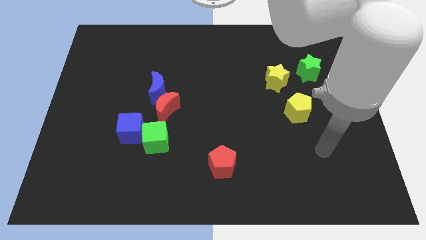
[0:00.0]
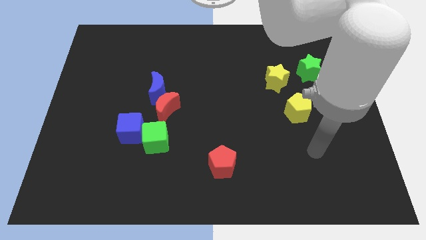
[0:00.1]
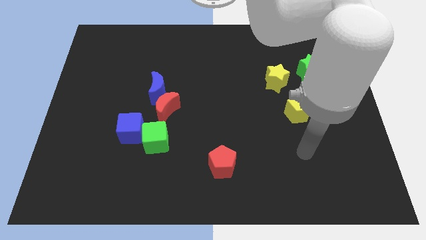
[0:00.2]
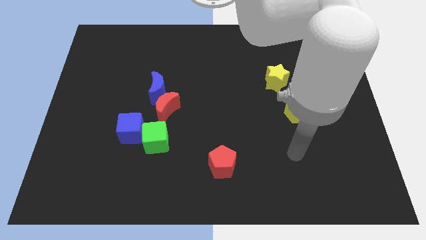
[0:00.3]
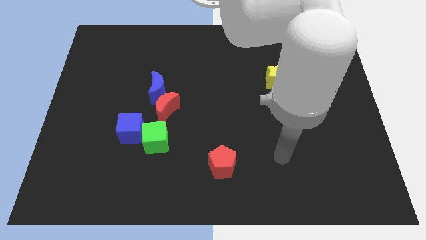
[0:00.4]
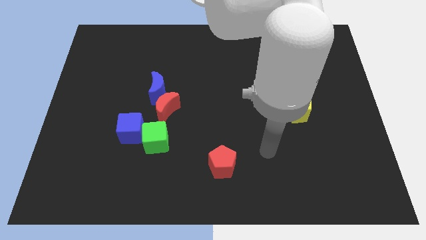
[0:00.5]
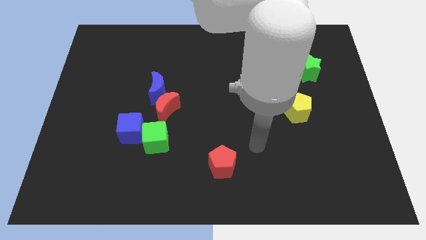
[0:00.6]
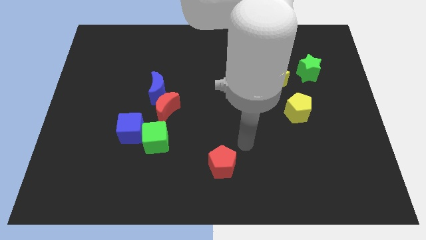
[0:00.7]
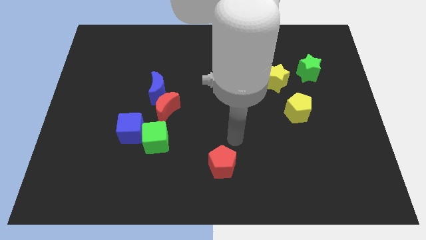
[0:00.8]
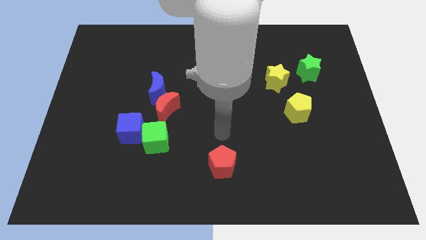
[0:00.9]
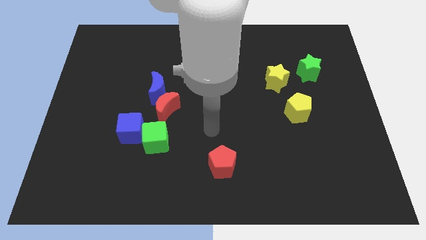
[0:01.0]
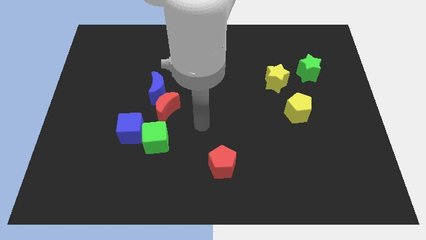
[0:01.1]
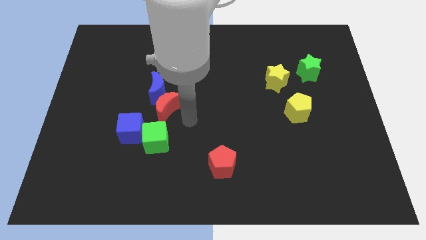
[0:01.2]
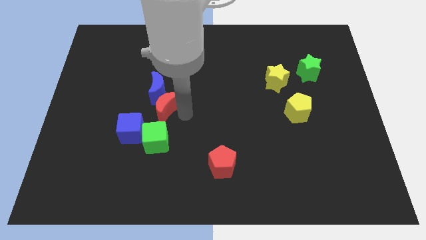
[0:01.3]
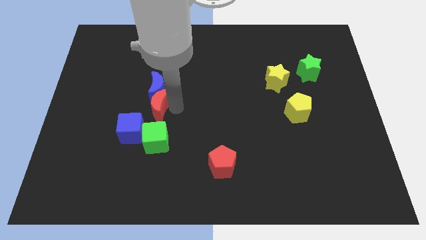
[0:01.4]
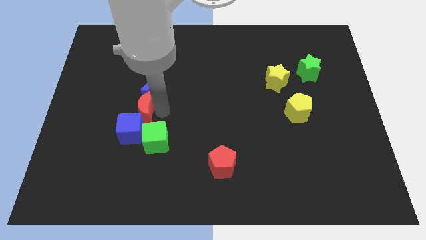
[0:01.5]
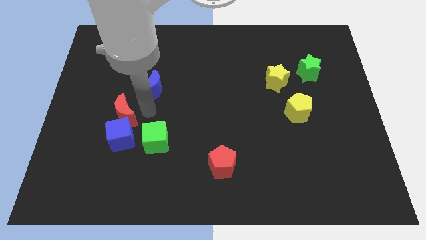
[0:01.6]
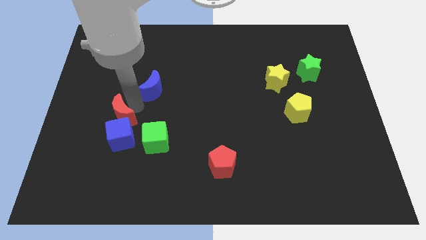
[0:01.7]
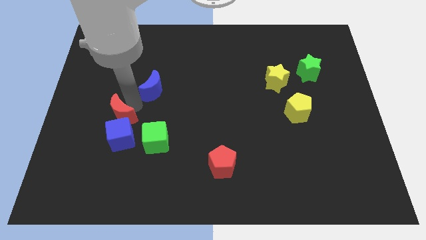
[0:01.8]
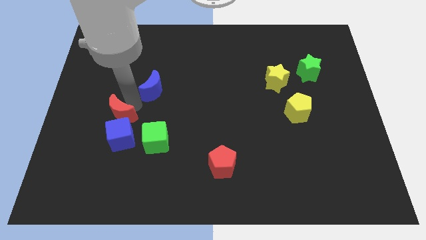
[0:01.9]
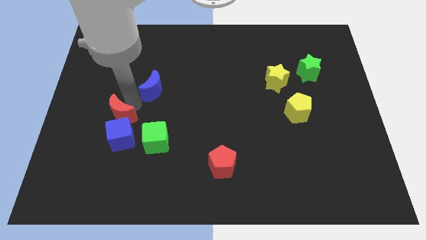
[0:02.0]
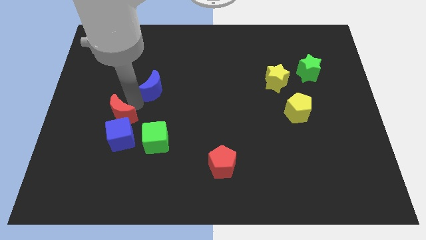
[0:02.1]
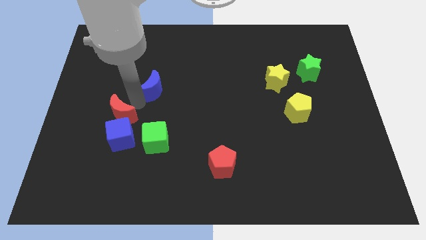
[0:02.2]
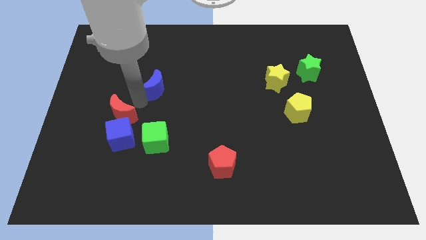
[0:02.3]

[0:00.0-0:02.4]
separate the blue moon from the red moon

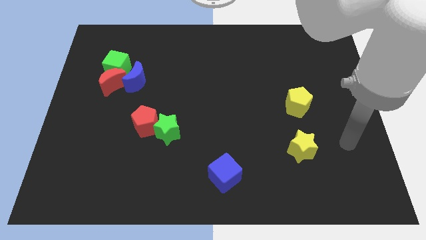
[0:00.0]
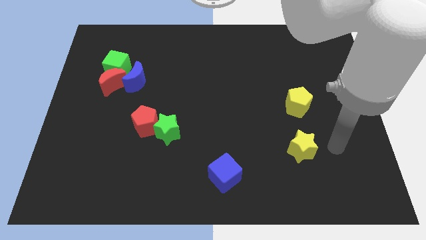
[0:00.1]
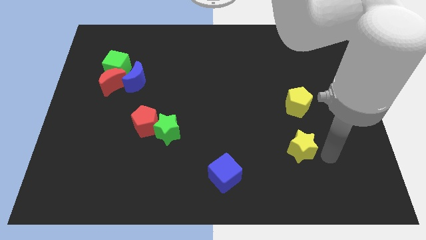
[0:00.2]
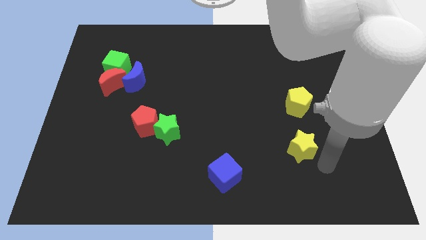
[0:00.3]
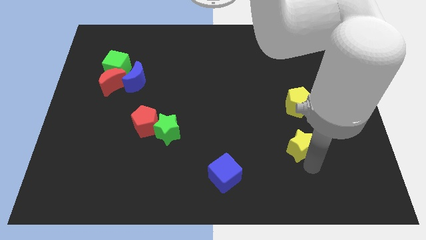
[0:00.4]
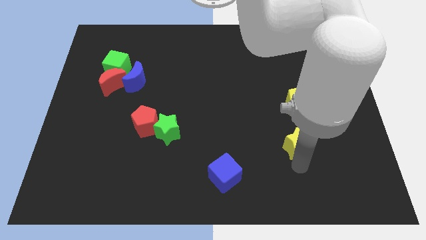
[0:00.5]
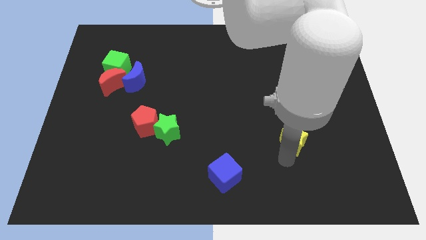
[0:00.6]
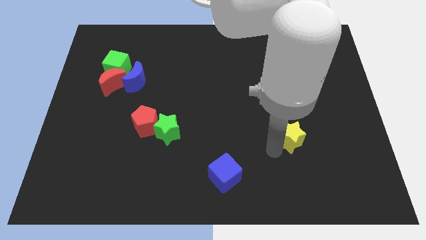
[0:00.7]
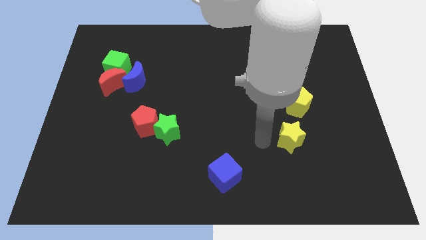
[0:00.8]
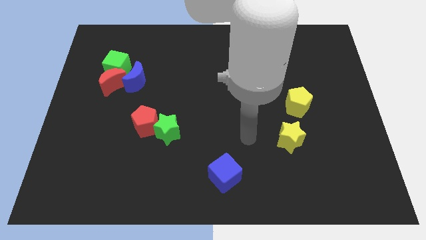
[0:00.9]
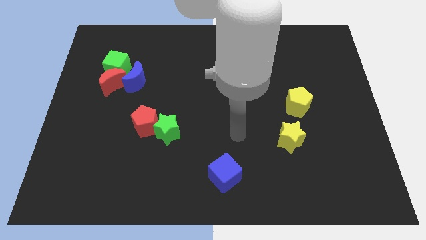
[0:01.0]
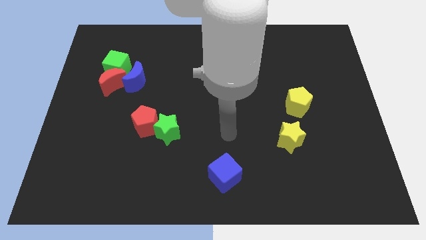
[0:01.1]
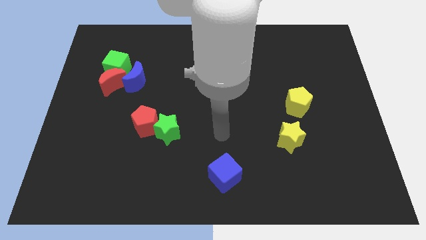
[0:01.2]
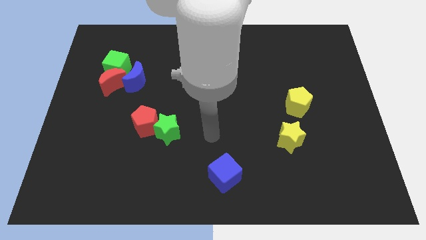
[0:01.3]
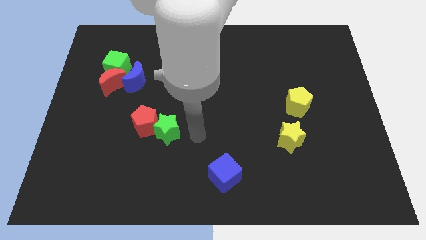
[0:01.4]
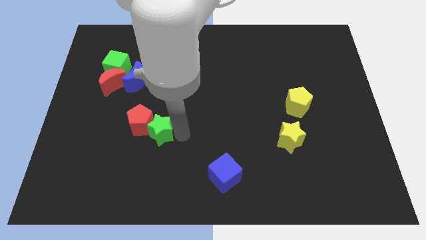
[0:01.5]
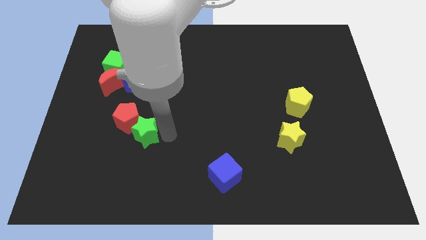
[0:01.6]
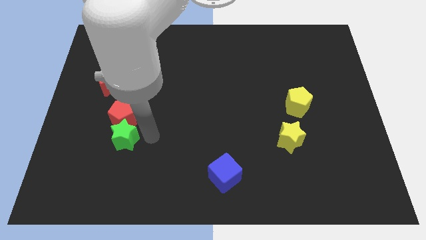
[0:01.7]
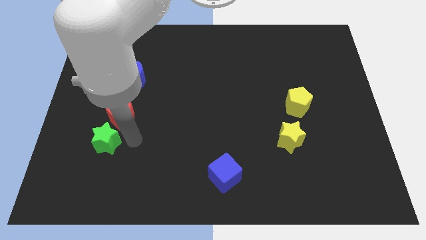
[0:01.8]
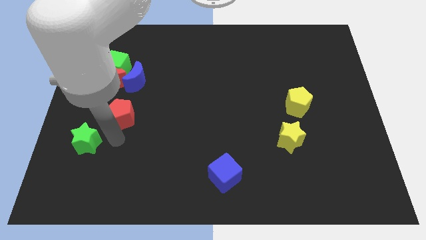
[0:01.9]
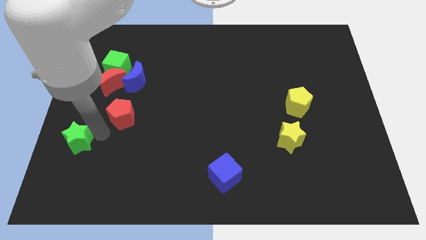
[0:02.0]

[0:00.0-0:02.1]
move the red pentagon away from the green star

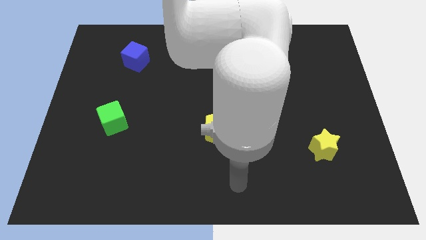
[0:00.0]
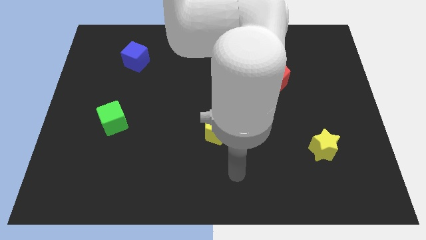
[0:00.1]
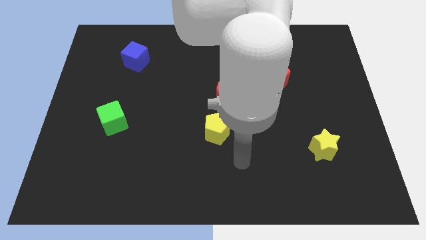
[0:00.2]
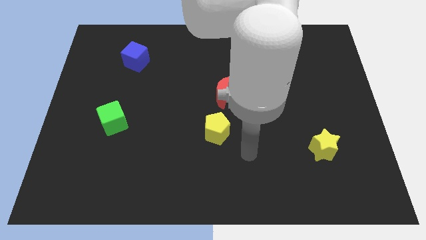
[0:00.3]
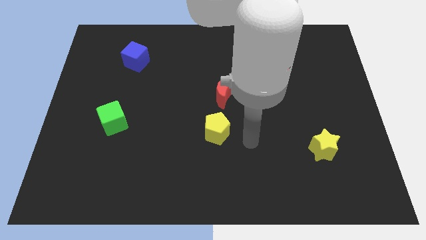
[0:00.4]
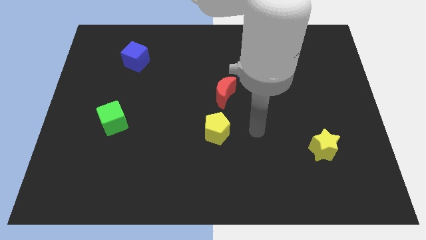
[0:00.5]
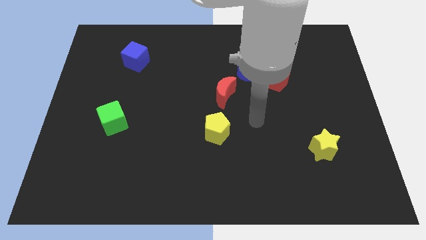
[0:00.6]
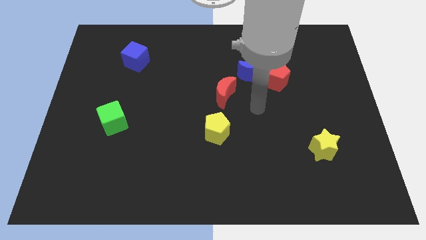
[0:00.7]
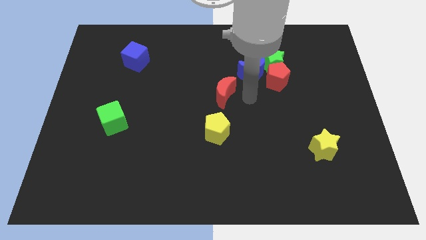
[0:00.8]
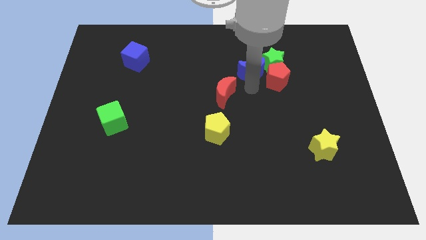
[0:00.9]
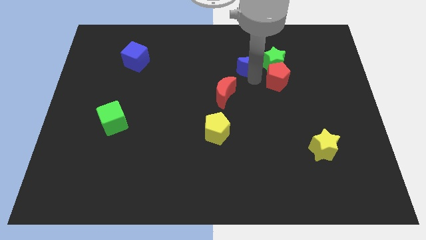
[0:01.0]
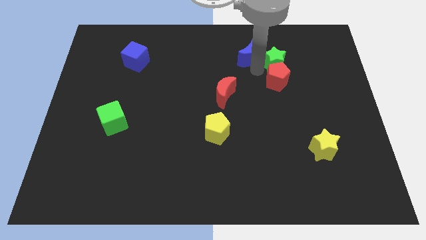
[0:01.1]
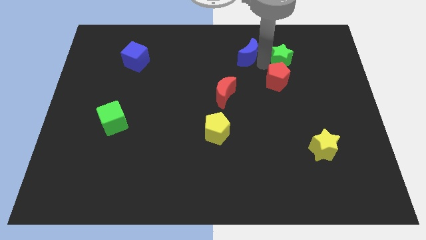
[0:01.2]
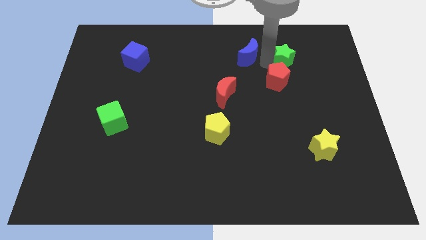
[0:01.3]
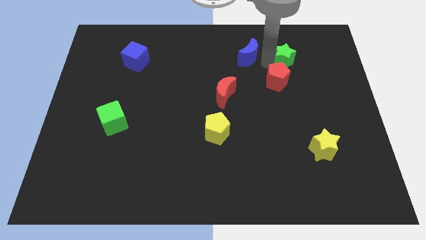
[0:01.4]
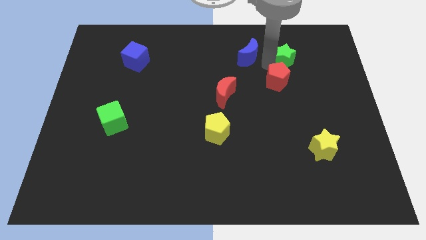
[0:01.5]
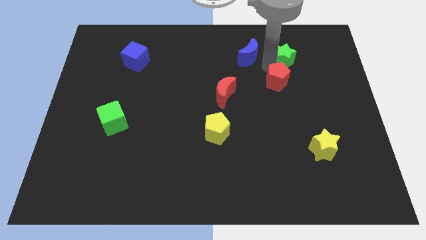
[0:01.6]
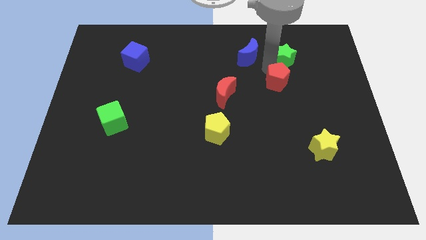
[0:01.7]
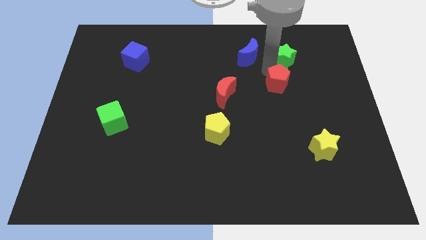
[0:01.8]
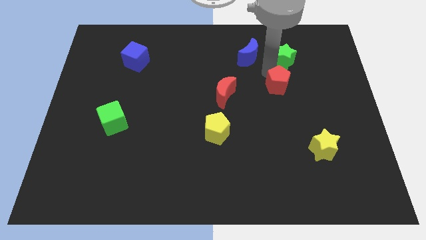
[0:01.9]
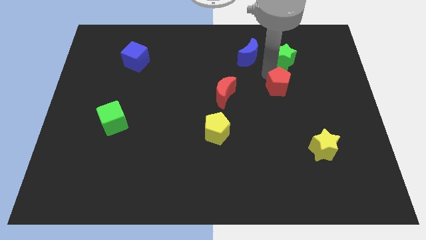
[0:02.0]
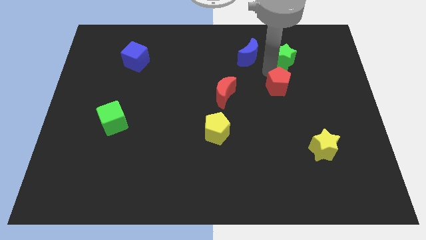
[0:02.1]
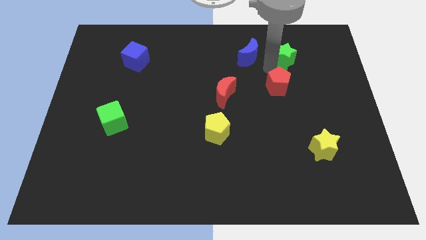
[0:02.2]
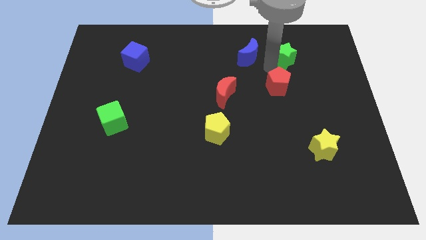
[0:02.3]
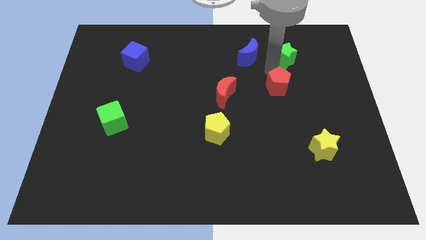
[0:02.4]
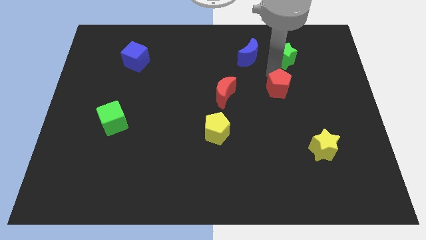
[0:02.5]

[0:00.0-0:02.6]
pull the red pentagon apart from the green star and blue moon

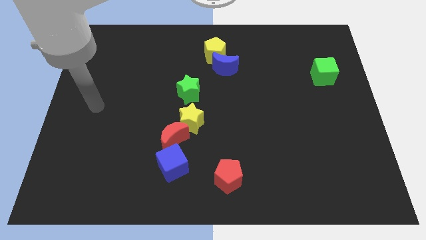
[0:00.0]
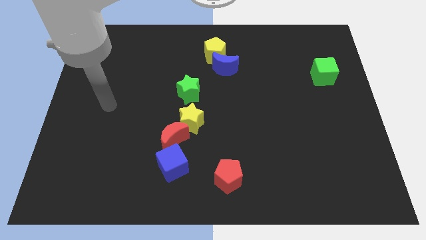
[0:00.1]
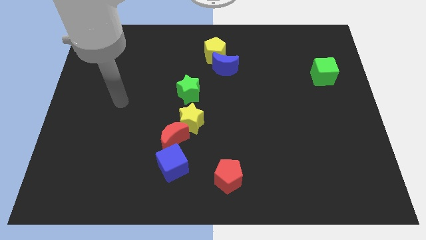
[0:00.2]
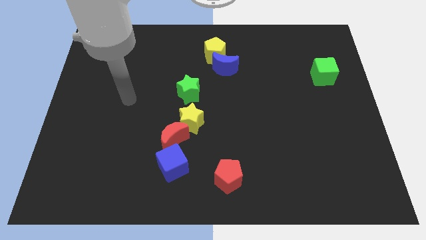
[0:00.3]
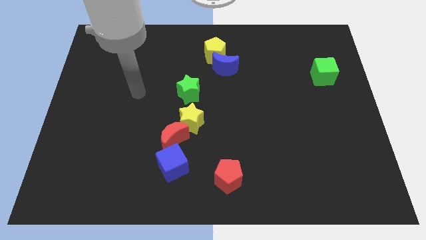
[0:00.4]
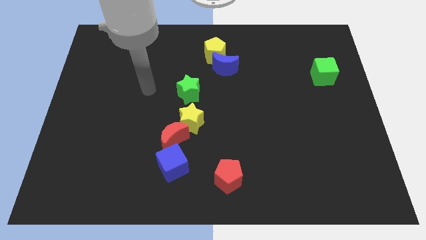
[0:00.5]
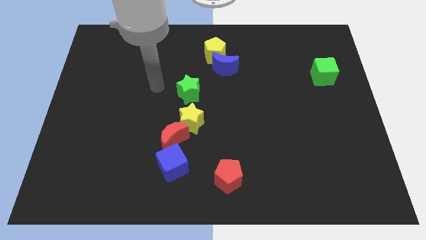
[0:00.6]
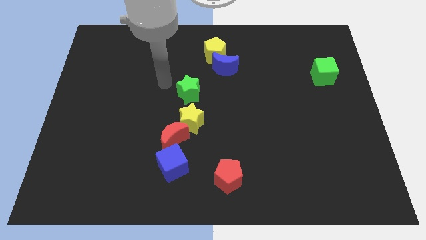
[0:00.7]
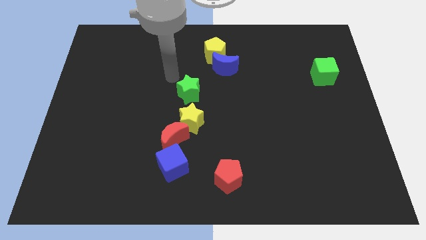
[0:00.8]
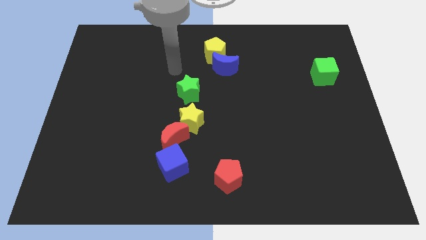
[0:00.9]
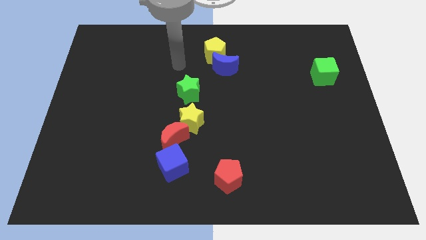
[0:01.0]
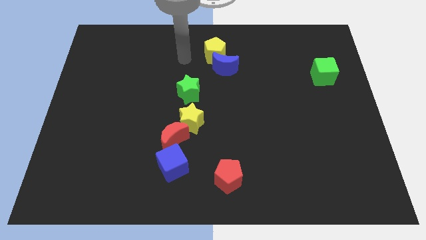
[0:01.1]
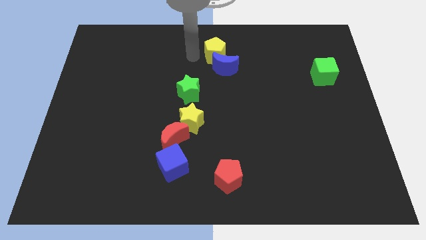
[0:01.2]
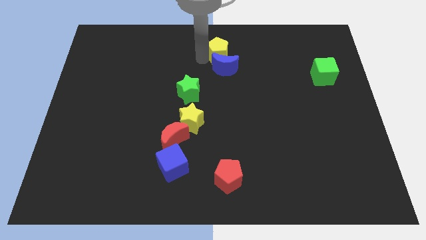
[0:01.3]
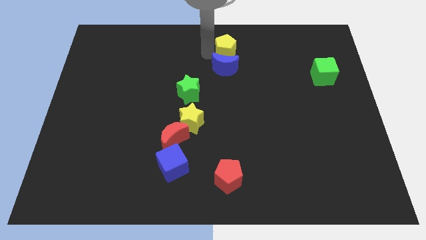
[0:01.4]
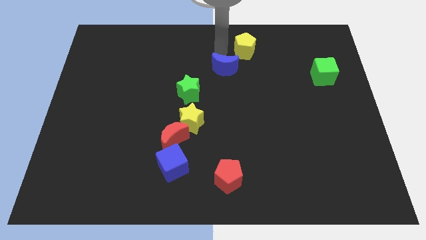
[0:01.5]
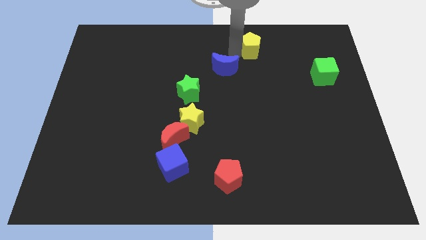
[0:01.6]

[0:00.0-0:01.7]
separate the blue moon from the yellow pentagon

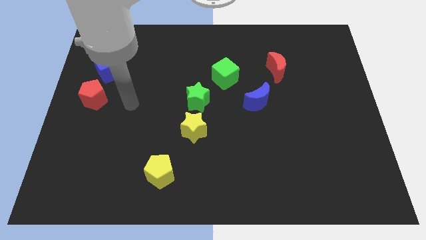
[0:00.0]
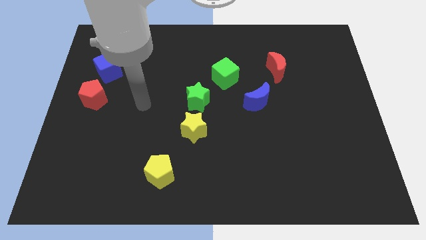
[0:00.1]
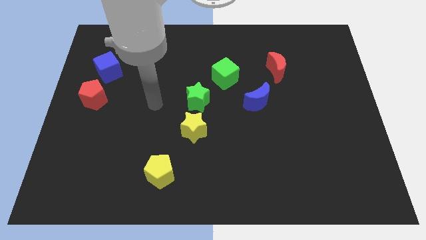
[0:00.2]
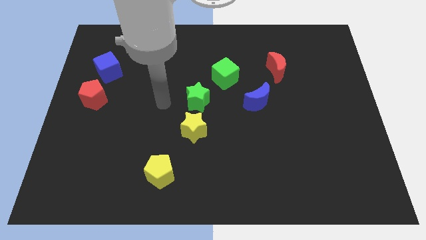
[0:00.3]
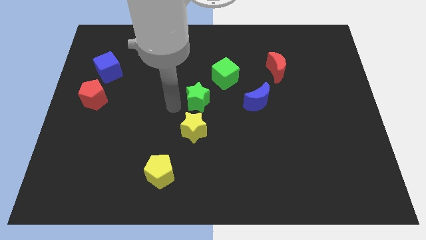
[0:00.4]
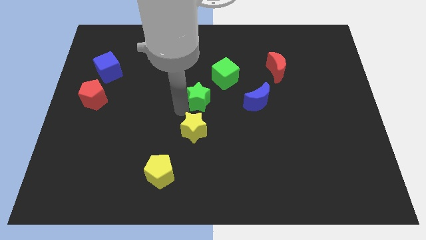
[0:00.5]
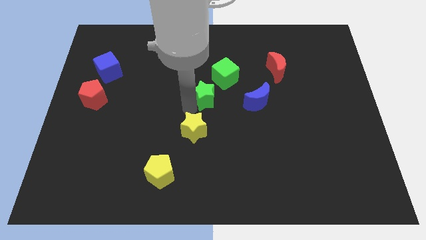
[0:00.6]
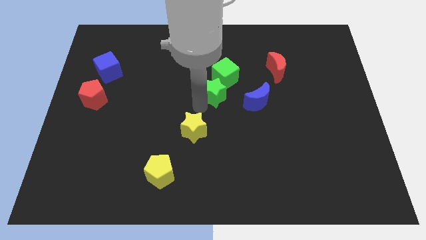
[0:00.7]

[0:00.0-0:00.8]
separate the yellow star from the green star
